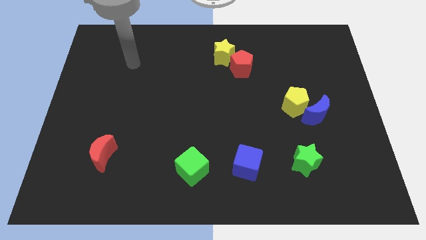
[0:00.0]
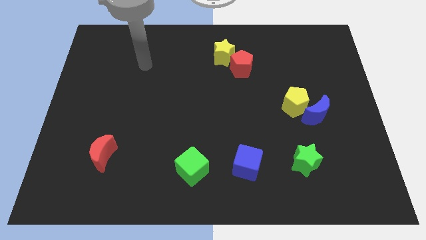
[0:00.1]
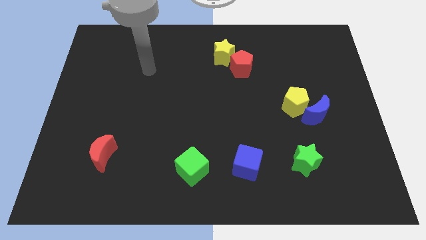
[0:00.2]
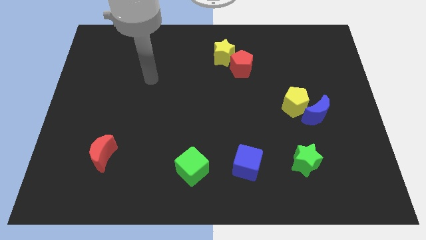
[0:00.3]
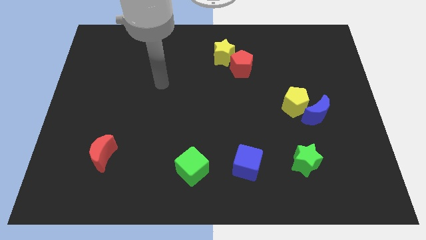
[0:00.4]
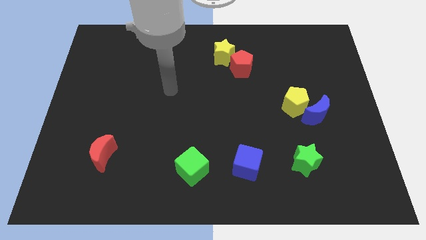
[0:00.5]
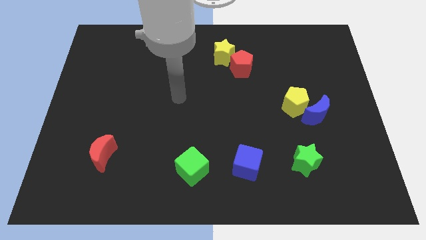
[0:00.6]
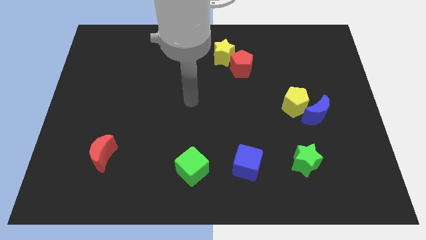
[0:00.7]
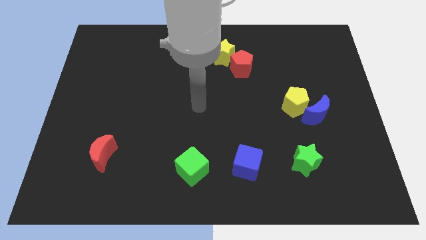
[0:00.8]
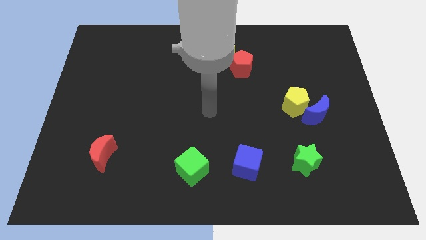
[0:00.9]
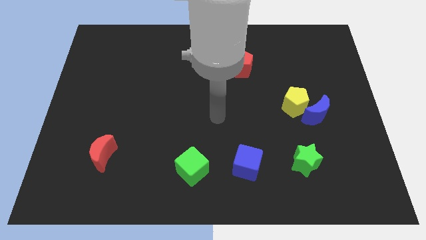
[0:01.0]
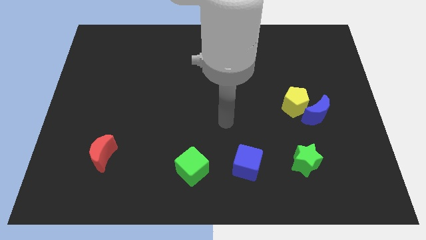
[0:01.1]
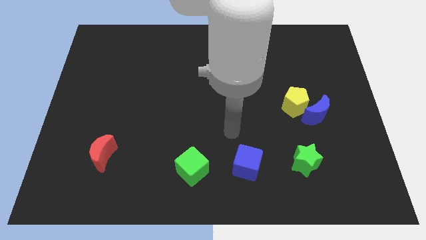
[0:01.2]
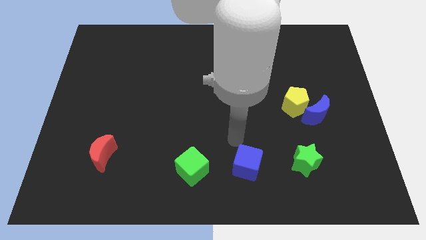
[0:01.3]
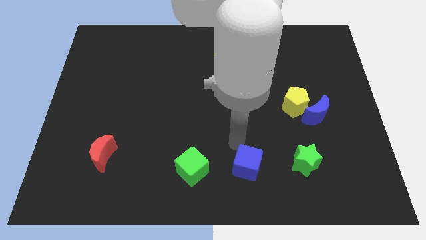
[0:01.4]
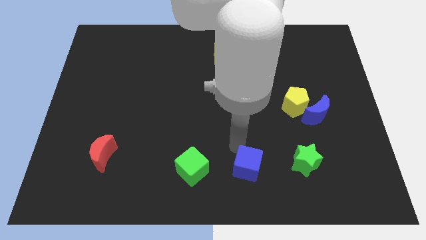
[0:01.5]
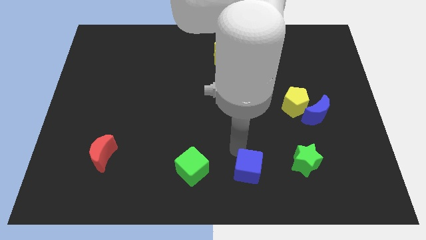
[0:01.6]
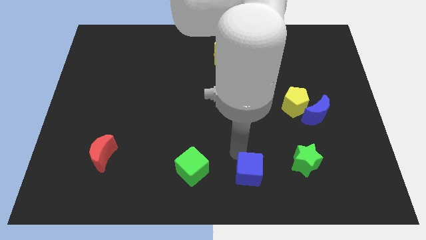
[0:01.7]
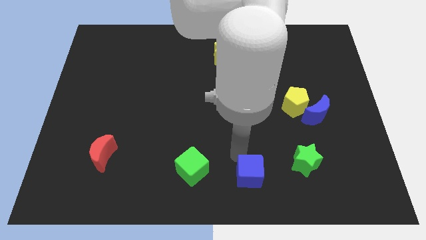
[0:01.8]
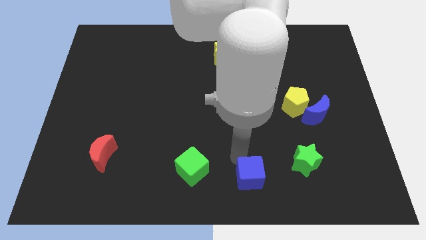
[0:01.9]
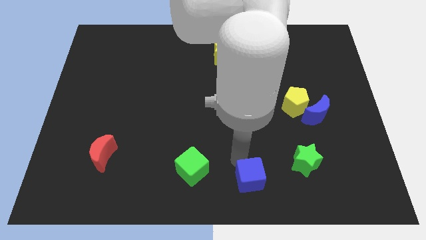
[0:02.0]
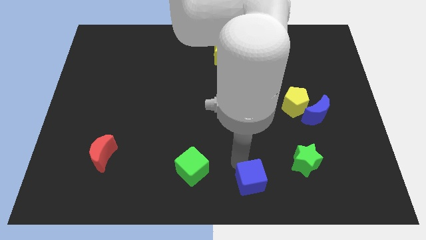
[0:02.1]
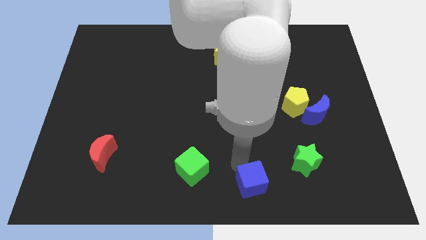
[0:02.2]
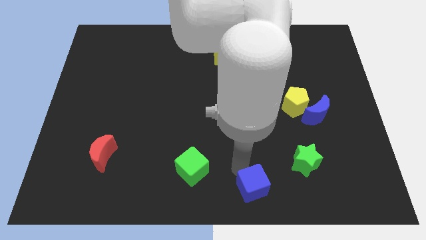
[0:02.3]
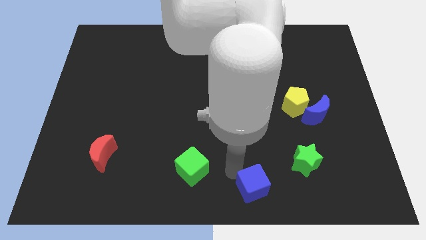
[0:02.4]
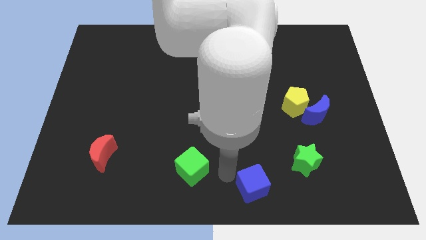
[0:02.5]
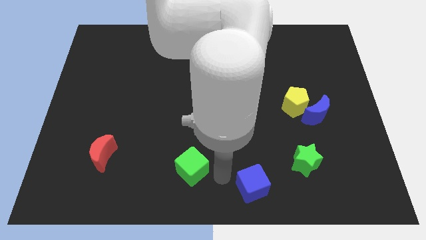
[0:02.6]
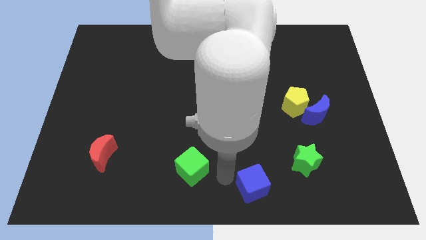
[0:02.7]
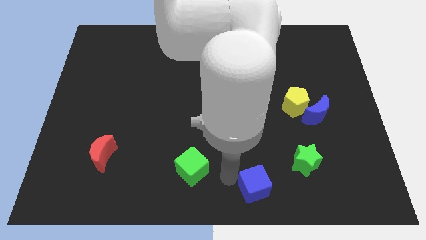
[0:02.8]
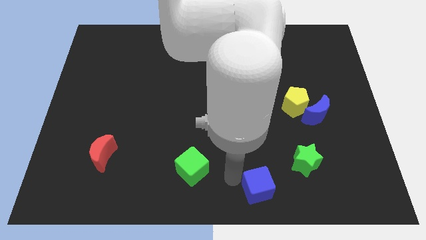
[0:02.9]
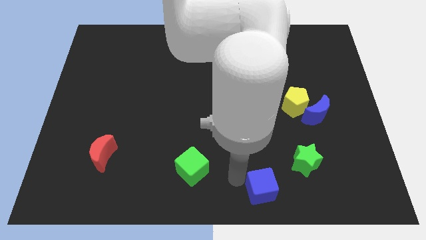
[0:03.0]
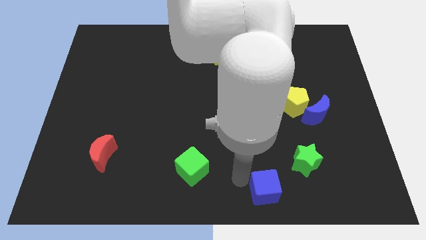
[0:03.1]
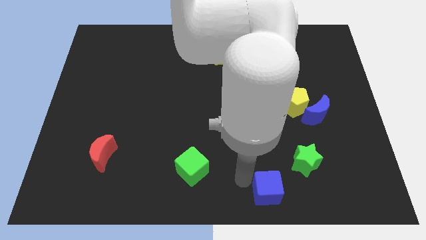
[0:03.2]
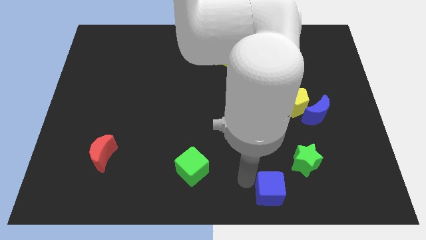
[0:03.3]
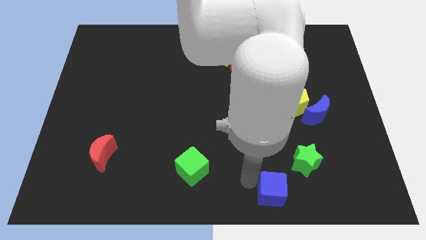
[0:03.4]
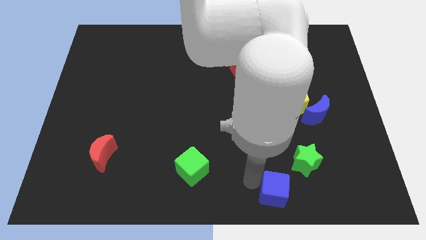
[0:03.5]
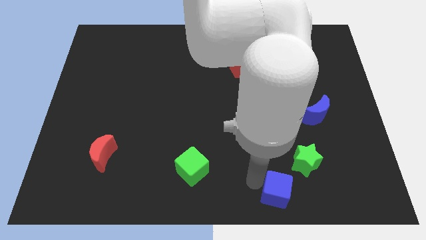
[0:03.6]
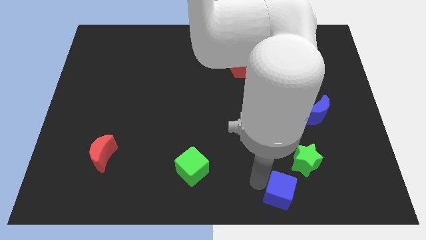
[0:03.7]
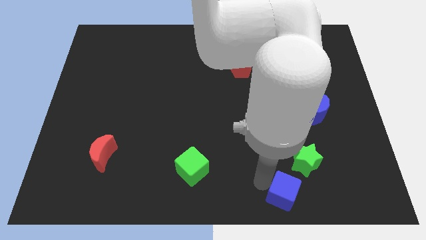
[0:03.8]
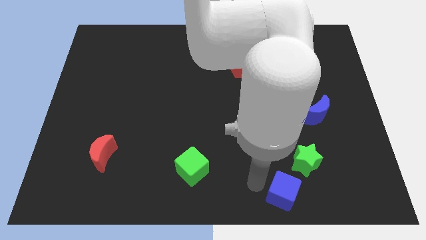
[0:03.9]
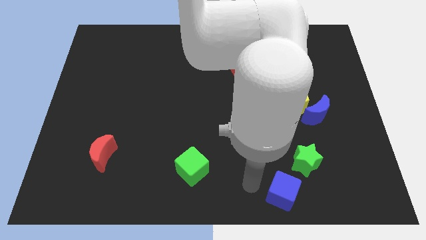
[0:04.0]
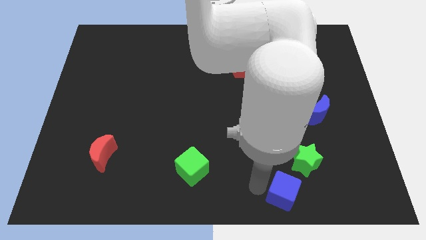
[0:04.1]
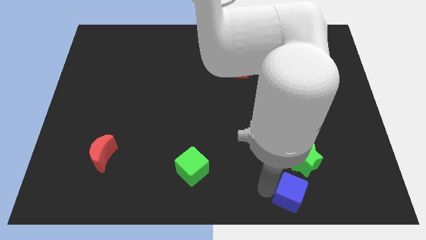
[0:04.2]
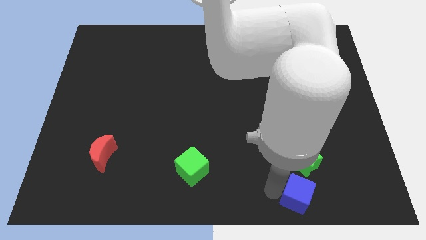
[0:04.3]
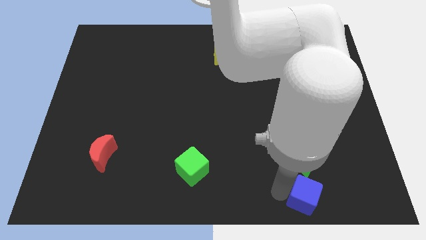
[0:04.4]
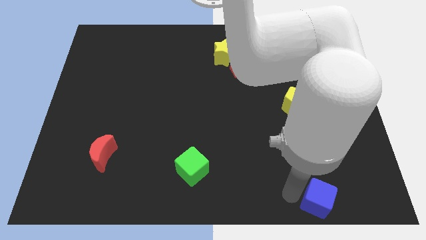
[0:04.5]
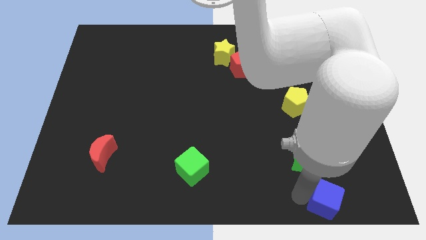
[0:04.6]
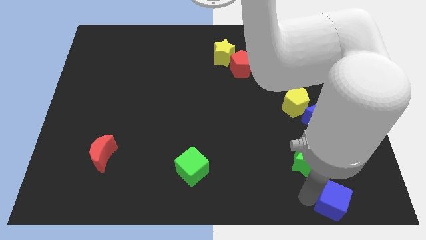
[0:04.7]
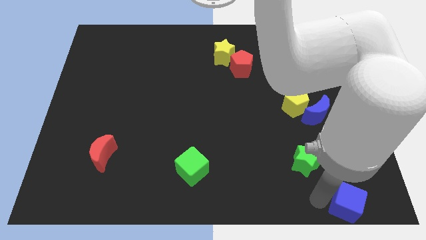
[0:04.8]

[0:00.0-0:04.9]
push the blue cube to the bottom right of the board

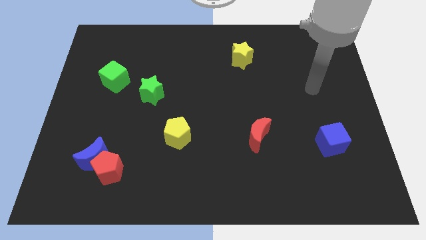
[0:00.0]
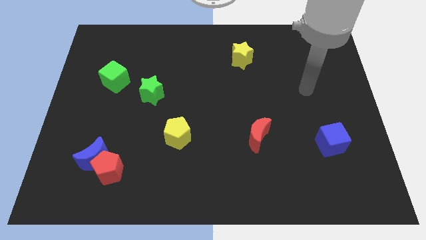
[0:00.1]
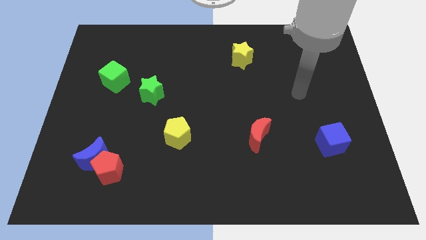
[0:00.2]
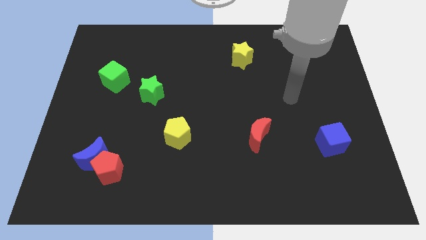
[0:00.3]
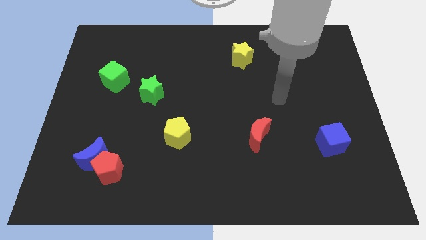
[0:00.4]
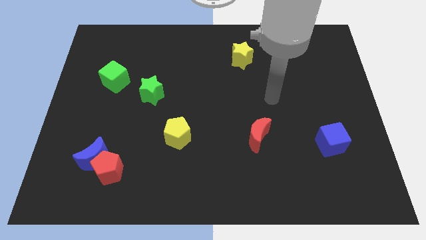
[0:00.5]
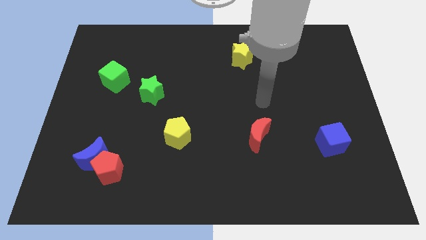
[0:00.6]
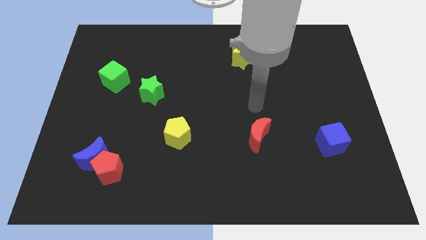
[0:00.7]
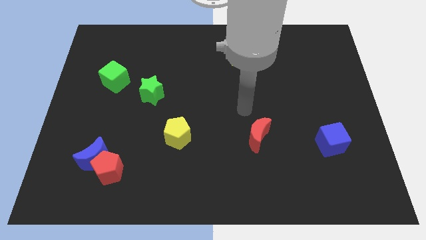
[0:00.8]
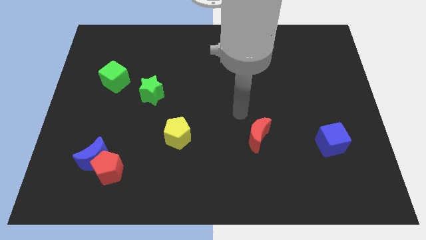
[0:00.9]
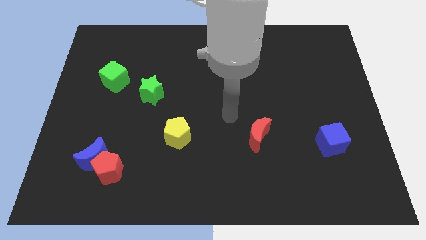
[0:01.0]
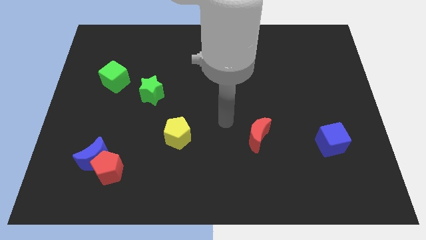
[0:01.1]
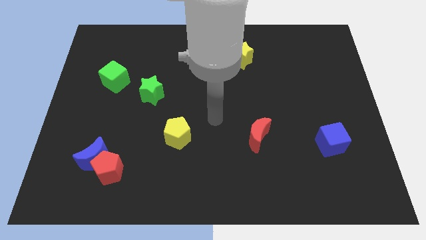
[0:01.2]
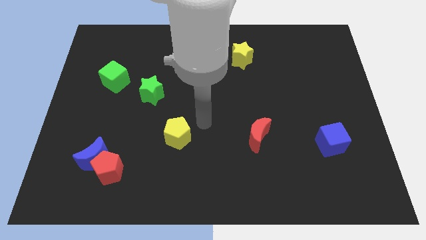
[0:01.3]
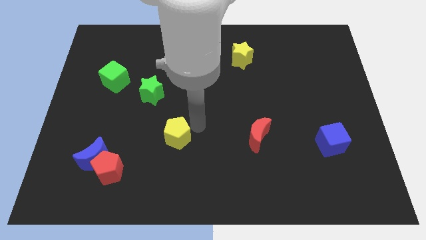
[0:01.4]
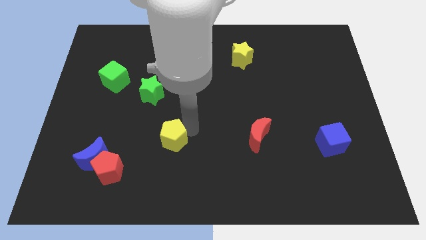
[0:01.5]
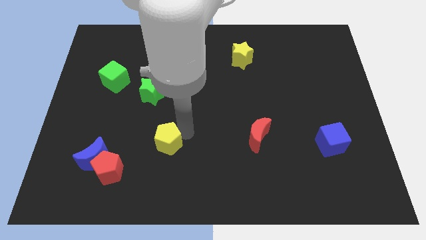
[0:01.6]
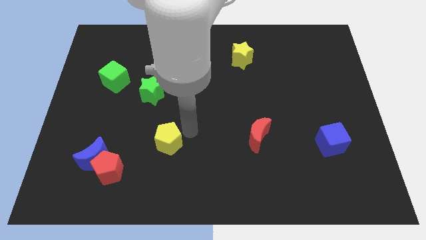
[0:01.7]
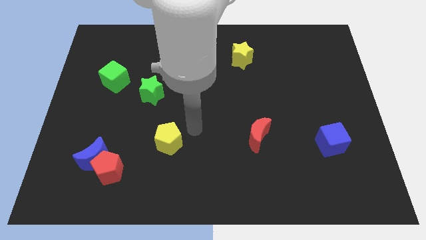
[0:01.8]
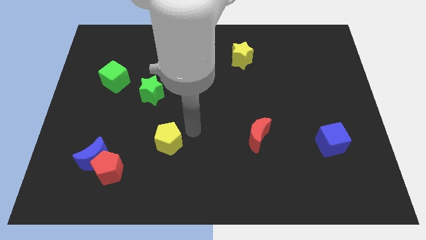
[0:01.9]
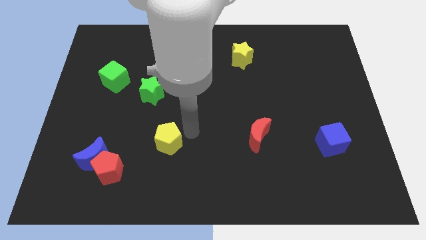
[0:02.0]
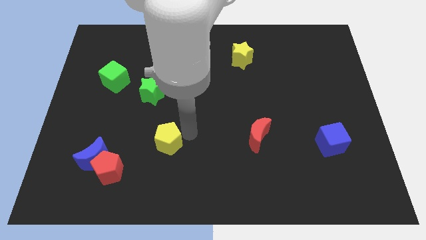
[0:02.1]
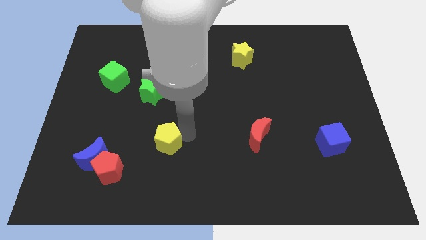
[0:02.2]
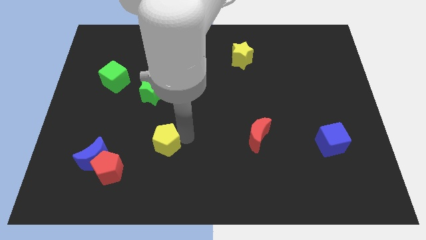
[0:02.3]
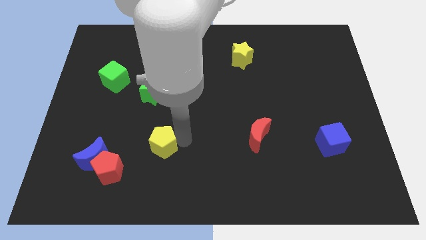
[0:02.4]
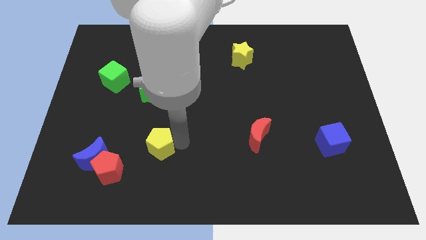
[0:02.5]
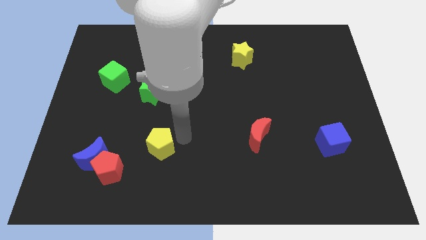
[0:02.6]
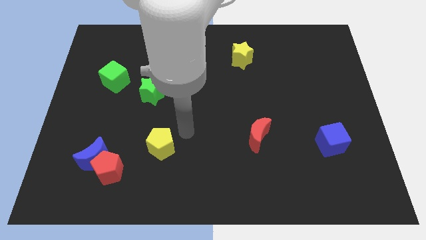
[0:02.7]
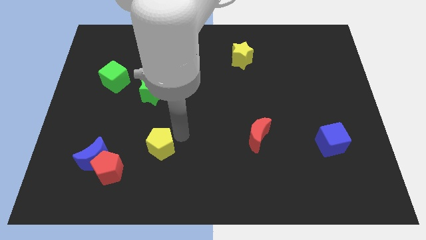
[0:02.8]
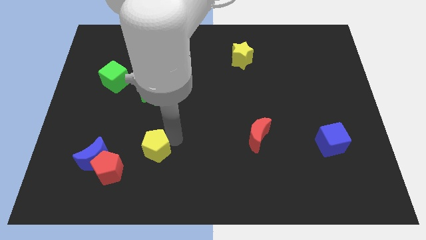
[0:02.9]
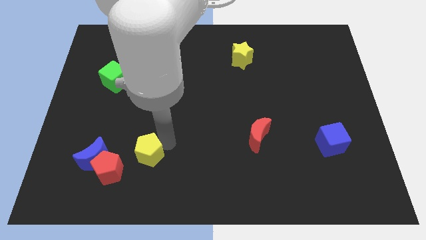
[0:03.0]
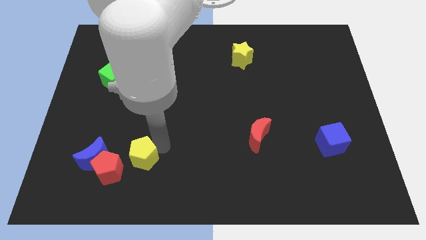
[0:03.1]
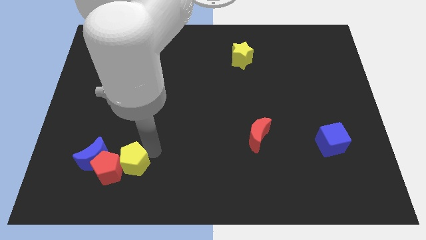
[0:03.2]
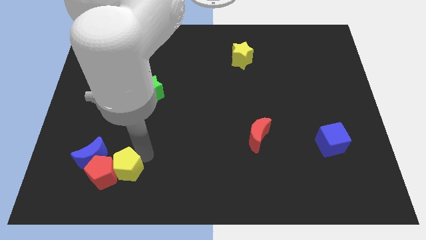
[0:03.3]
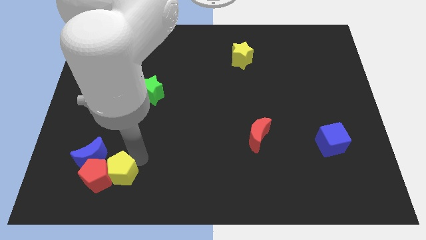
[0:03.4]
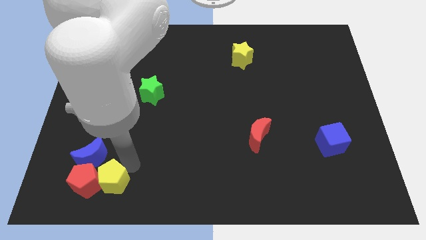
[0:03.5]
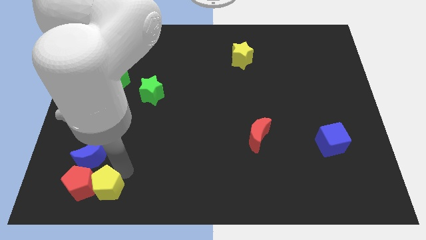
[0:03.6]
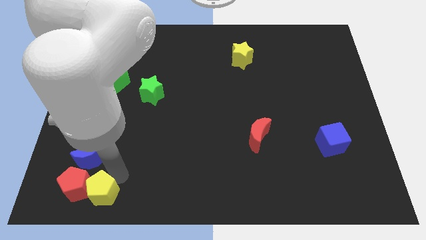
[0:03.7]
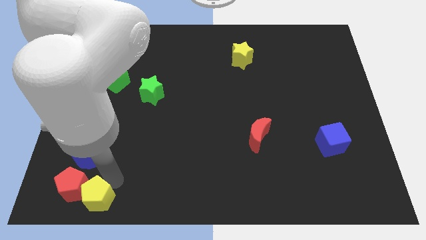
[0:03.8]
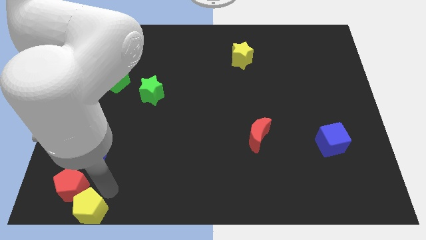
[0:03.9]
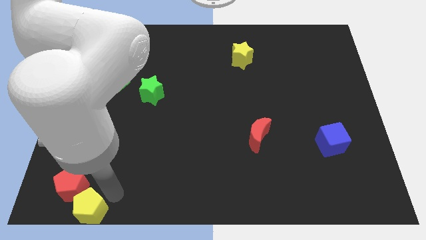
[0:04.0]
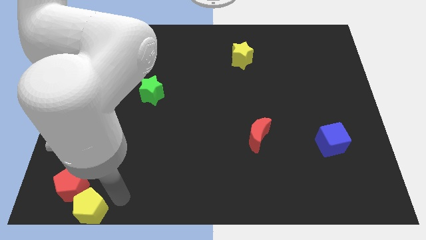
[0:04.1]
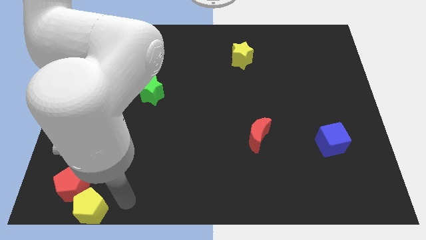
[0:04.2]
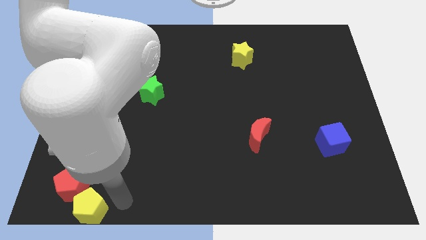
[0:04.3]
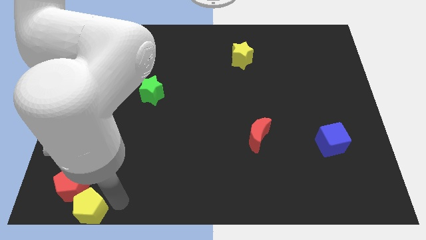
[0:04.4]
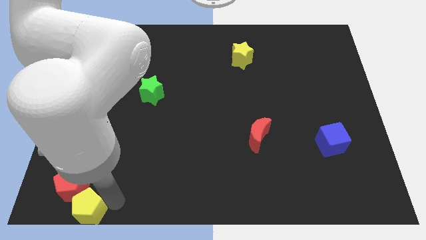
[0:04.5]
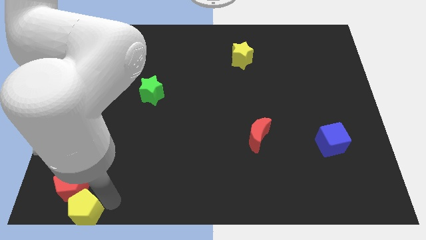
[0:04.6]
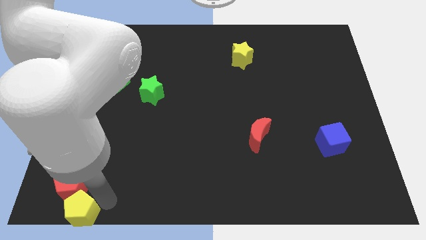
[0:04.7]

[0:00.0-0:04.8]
put the yellow pentagon to the bottom left
